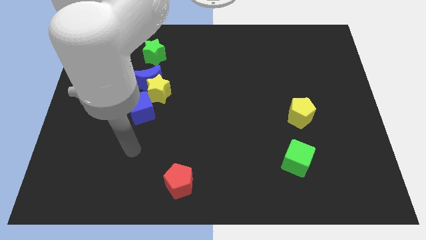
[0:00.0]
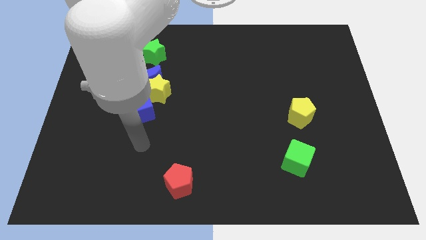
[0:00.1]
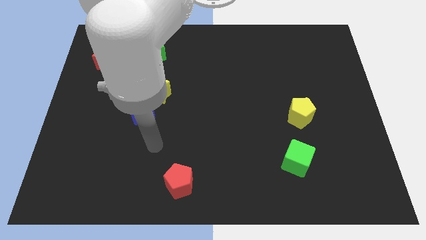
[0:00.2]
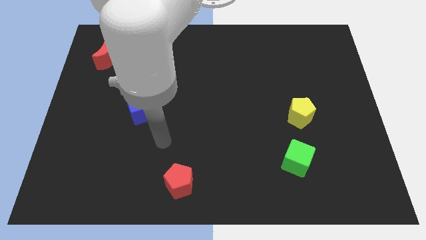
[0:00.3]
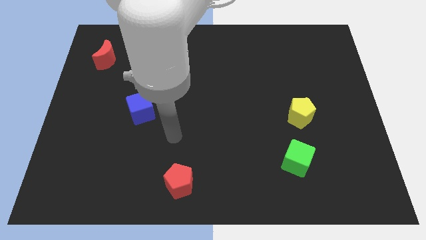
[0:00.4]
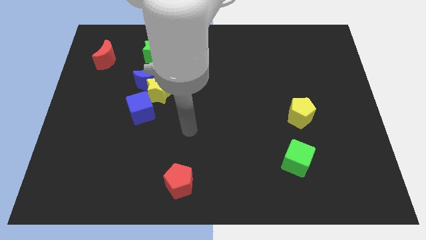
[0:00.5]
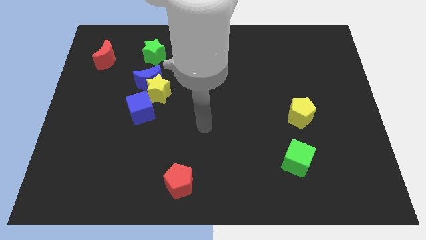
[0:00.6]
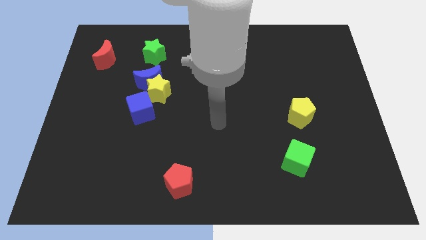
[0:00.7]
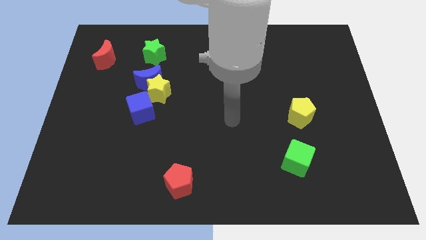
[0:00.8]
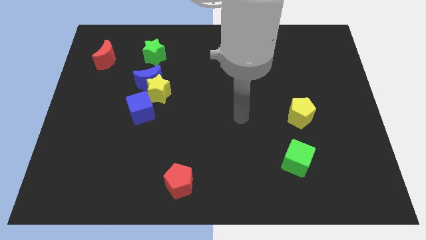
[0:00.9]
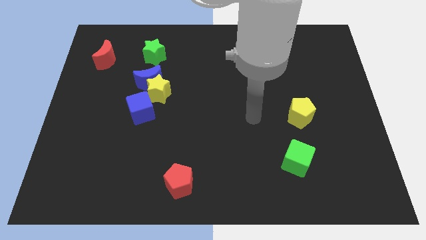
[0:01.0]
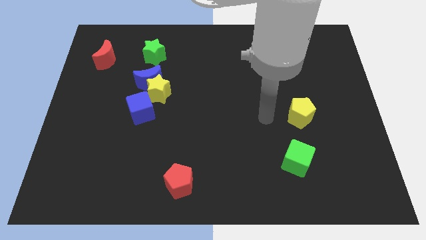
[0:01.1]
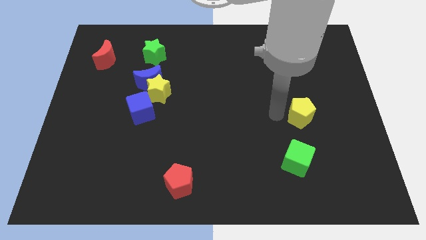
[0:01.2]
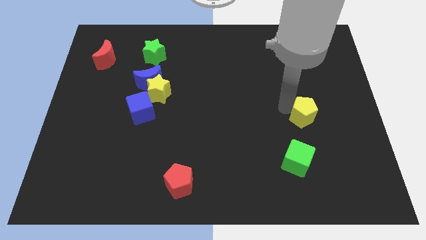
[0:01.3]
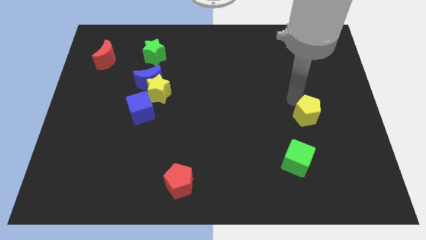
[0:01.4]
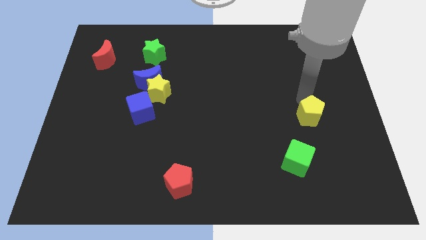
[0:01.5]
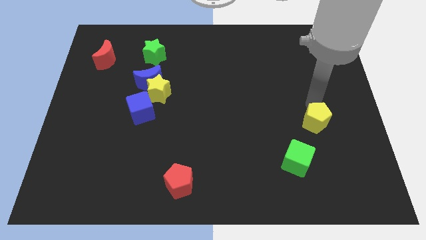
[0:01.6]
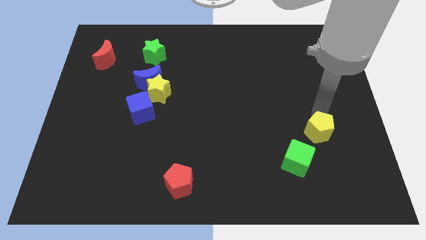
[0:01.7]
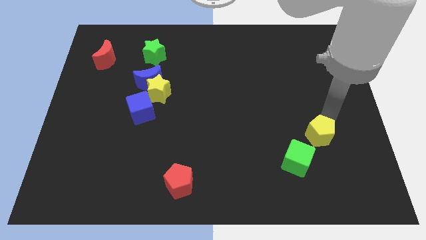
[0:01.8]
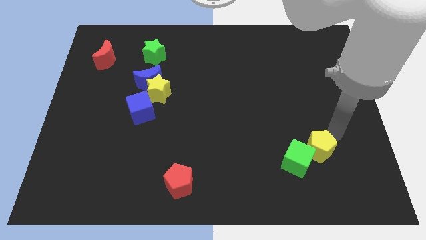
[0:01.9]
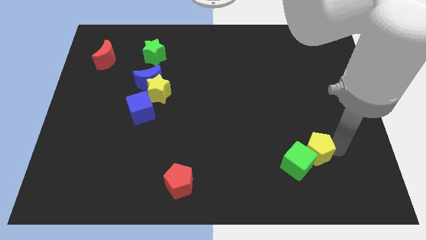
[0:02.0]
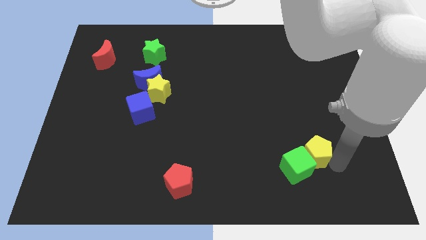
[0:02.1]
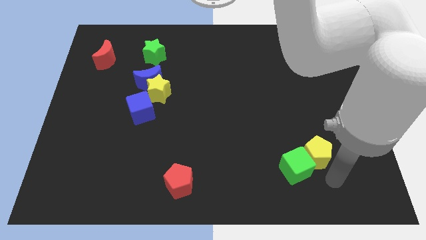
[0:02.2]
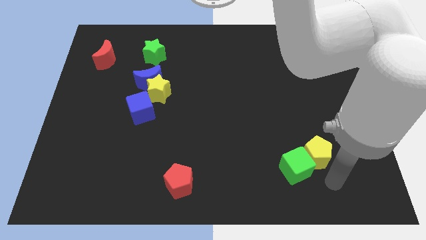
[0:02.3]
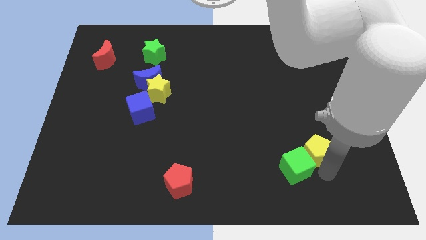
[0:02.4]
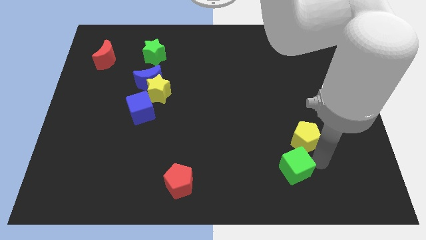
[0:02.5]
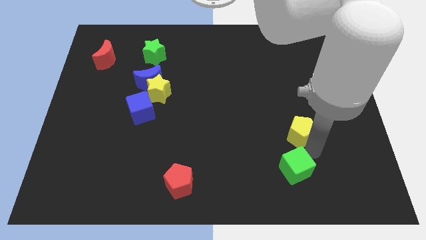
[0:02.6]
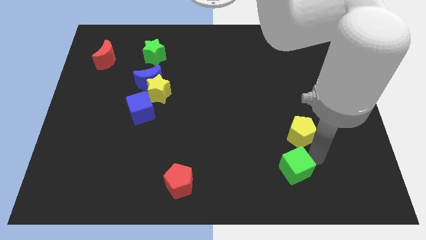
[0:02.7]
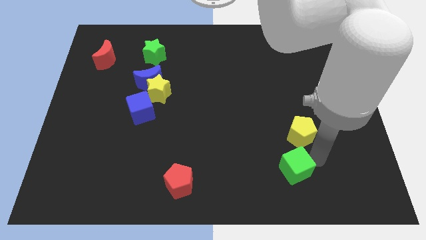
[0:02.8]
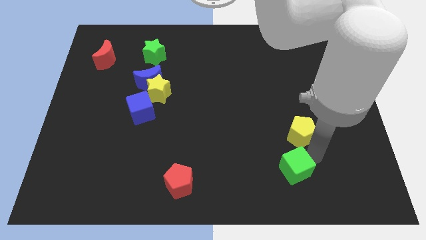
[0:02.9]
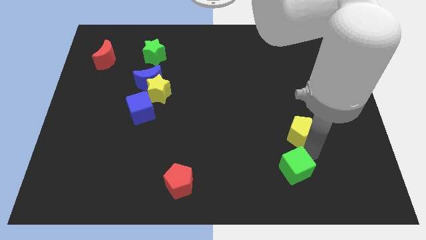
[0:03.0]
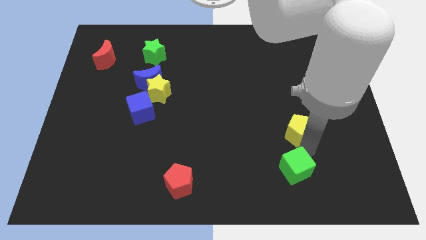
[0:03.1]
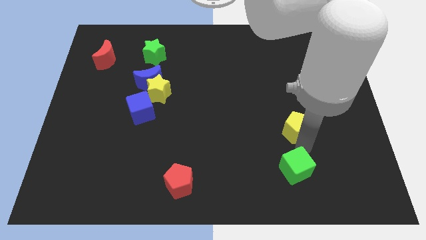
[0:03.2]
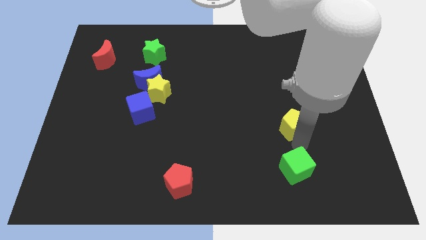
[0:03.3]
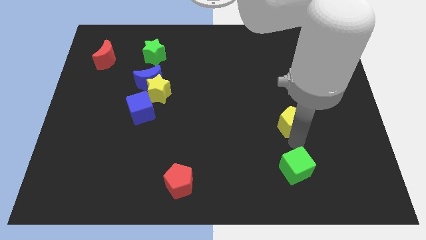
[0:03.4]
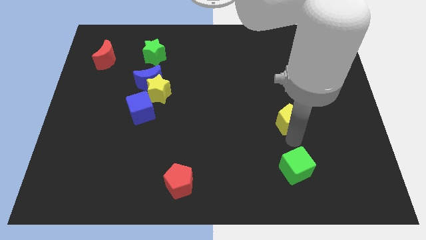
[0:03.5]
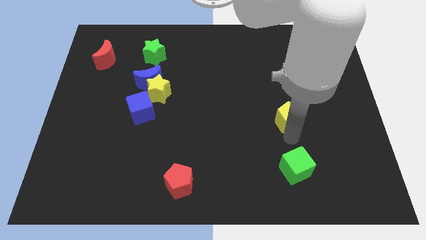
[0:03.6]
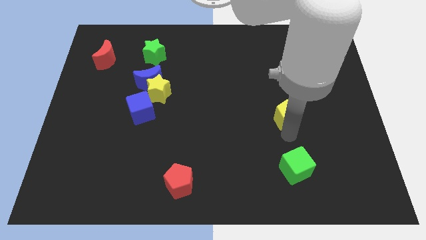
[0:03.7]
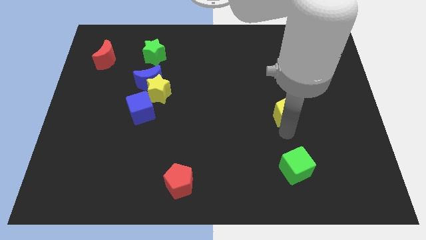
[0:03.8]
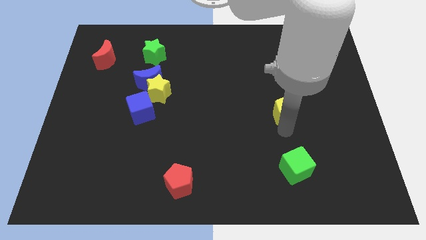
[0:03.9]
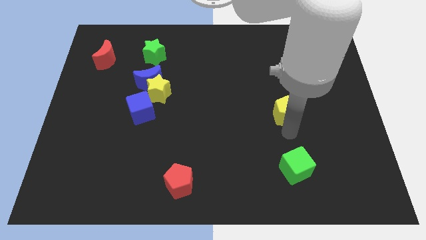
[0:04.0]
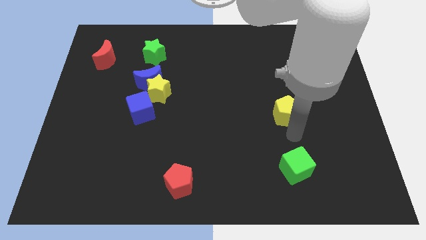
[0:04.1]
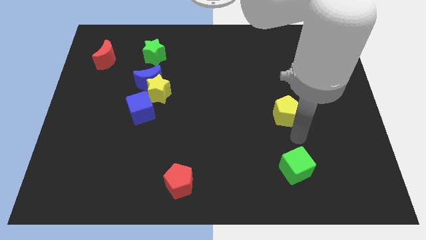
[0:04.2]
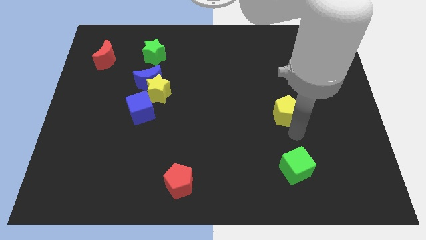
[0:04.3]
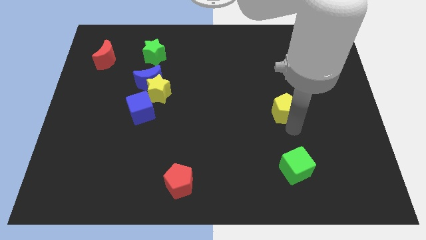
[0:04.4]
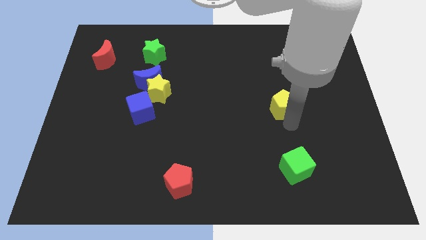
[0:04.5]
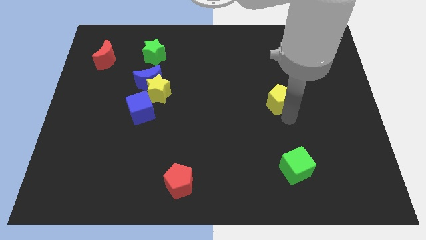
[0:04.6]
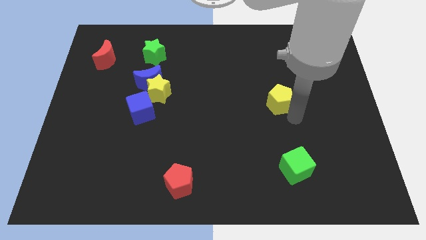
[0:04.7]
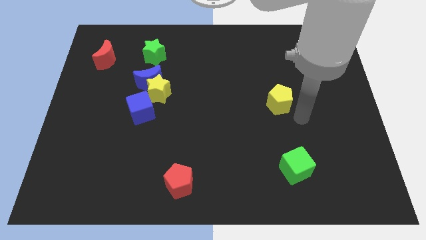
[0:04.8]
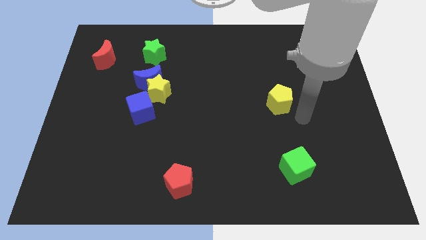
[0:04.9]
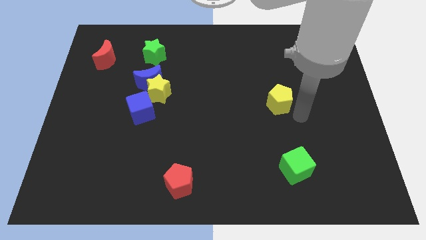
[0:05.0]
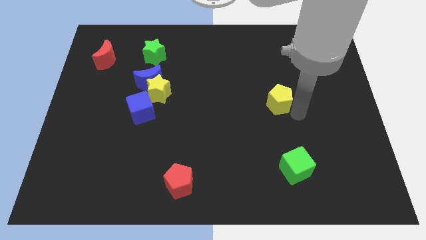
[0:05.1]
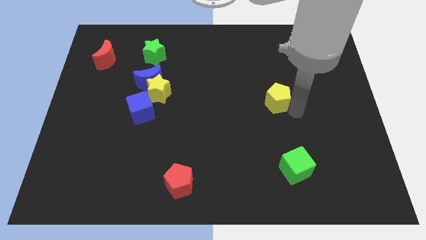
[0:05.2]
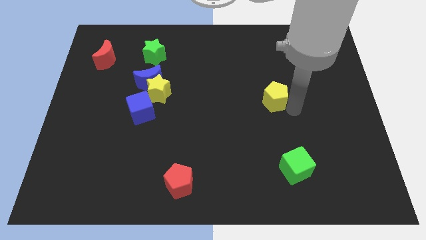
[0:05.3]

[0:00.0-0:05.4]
slightly move the yellow pentagon diagonally up and to the left

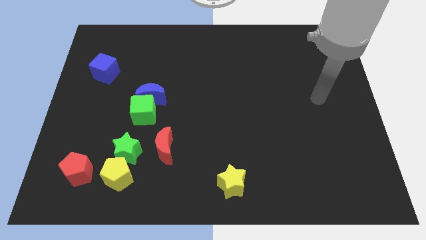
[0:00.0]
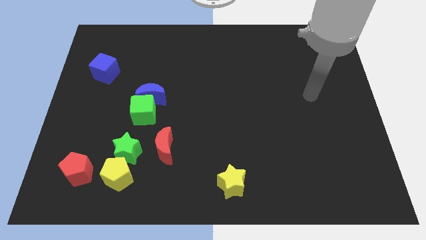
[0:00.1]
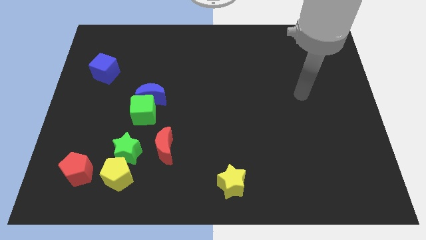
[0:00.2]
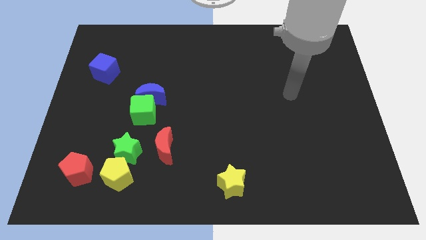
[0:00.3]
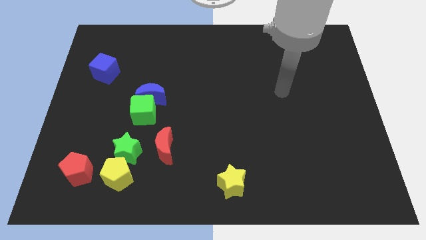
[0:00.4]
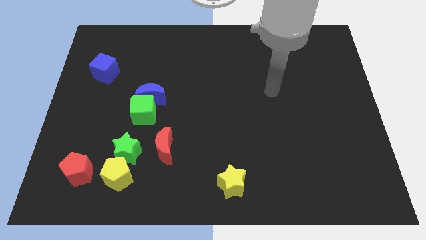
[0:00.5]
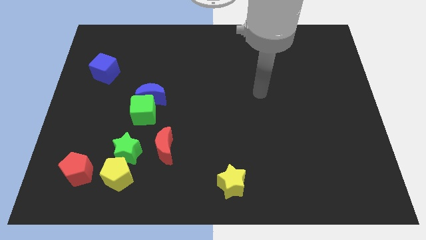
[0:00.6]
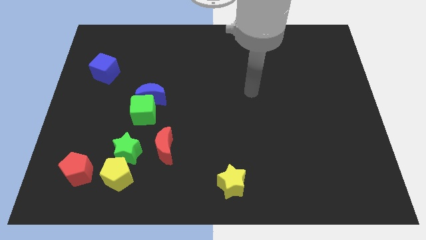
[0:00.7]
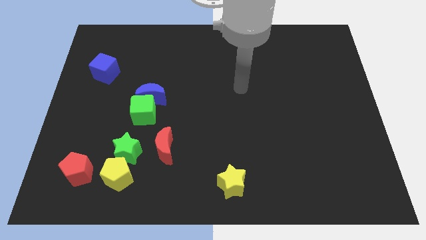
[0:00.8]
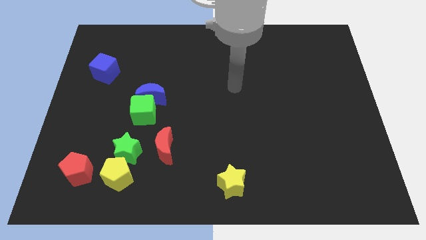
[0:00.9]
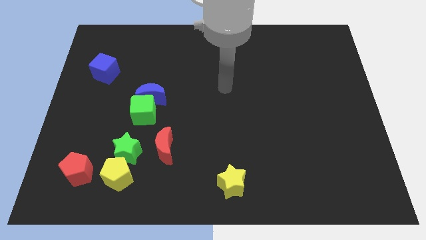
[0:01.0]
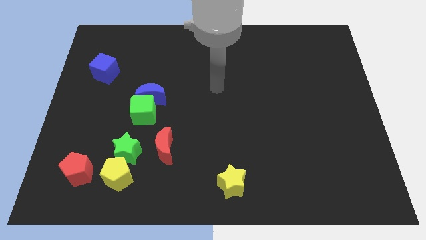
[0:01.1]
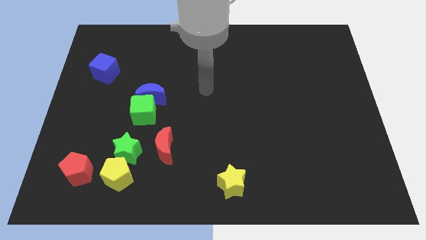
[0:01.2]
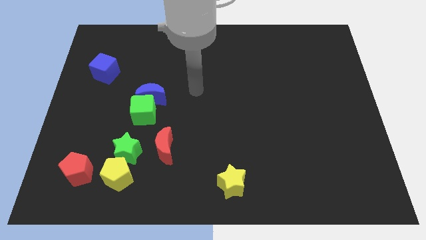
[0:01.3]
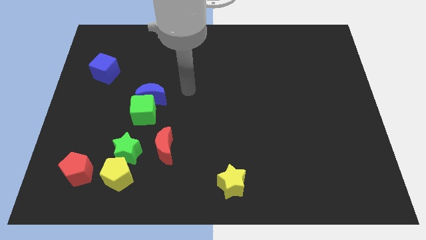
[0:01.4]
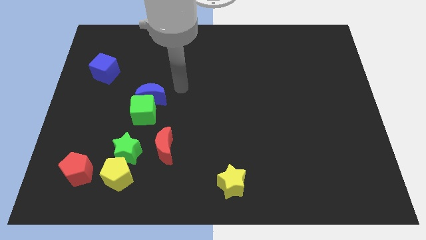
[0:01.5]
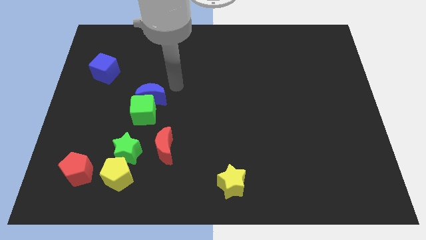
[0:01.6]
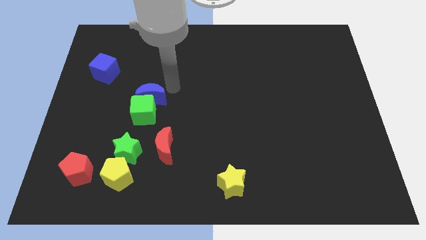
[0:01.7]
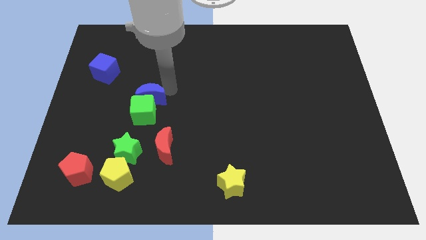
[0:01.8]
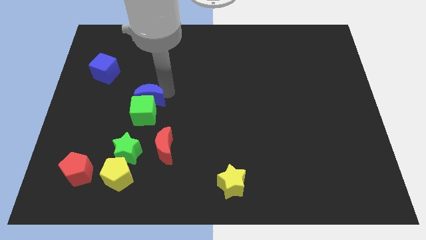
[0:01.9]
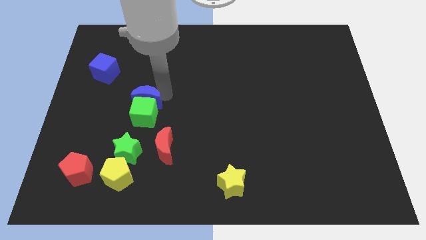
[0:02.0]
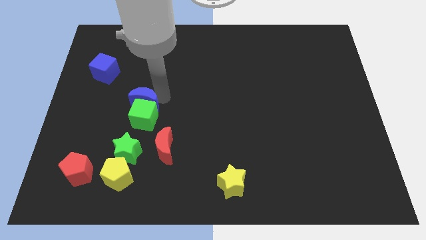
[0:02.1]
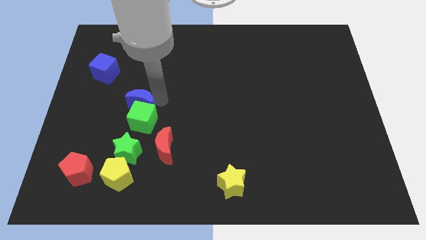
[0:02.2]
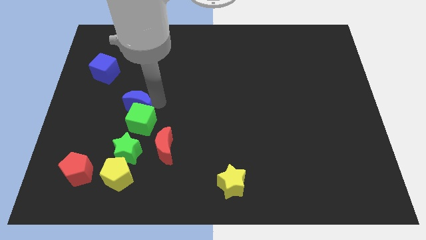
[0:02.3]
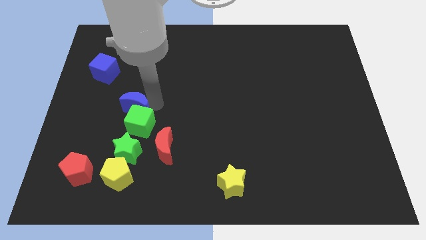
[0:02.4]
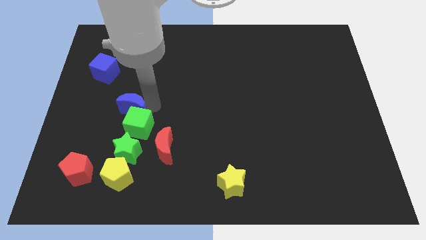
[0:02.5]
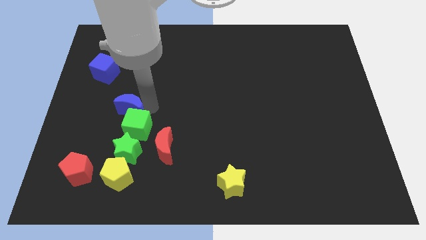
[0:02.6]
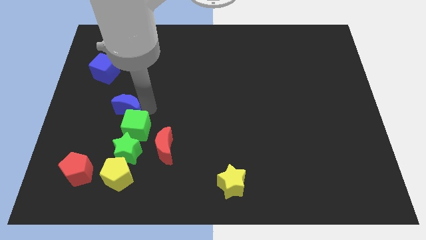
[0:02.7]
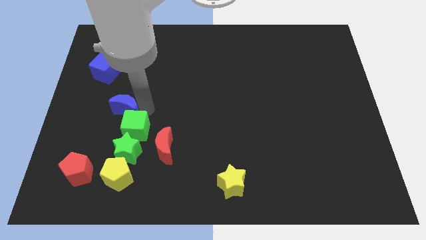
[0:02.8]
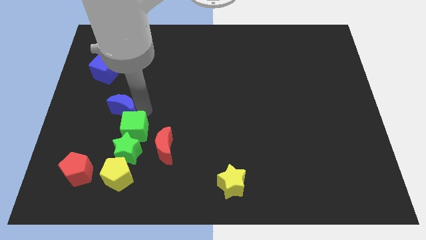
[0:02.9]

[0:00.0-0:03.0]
push the blue moon down and to the left a little bit
